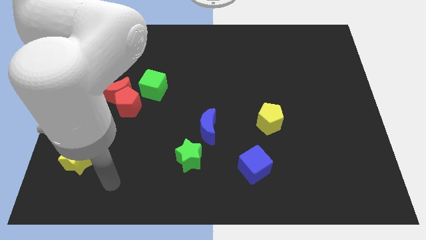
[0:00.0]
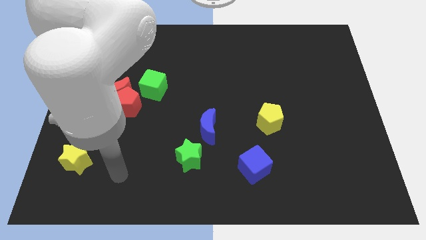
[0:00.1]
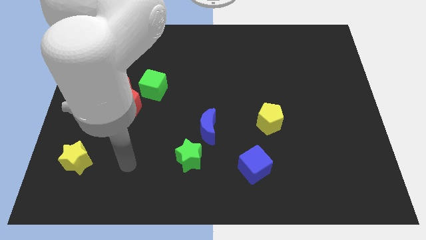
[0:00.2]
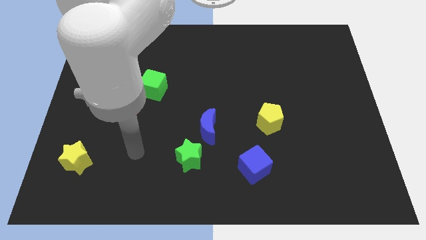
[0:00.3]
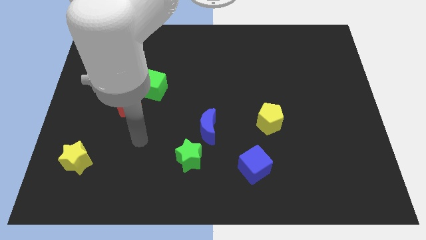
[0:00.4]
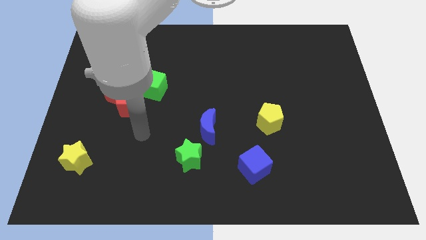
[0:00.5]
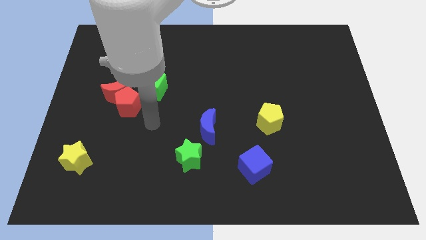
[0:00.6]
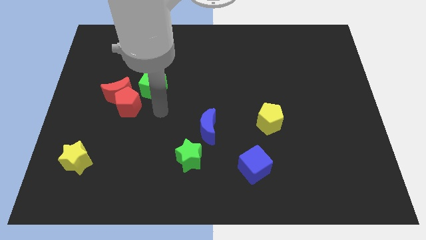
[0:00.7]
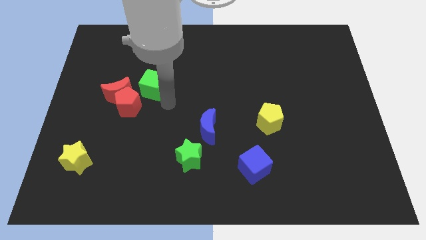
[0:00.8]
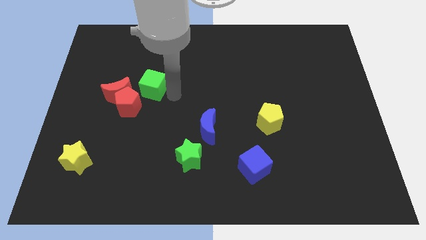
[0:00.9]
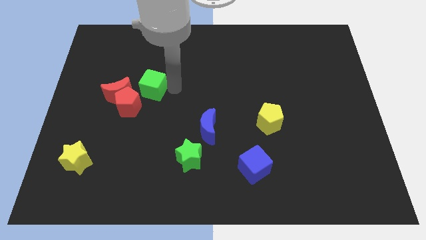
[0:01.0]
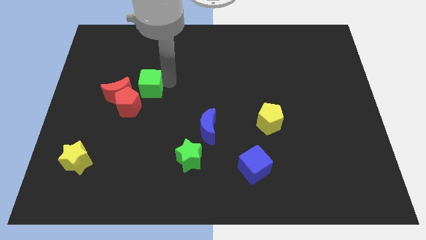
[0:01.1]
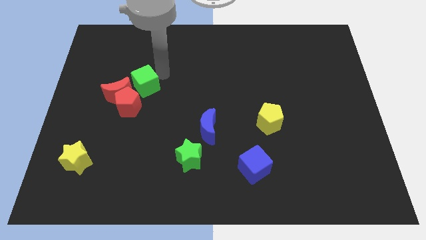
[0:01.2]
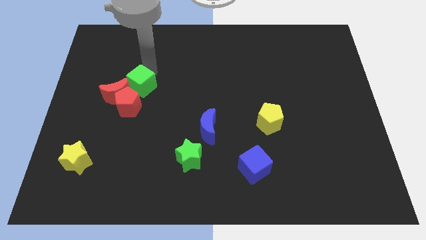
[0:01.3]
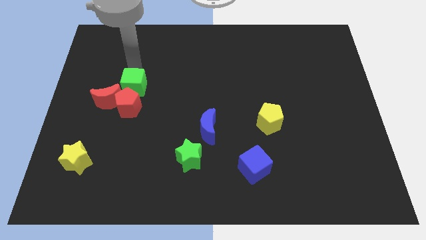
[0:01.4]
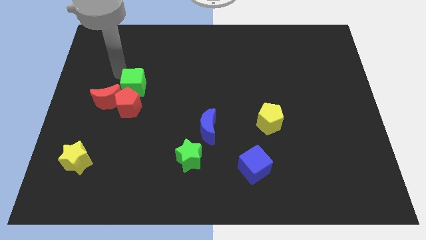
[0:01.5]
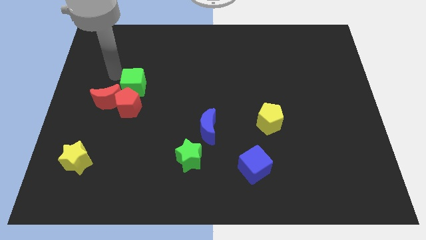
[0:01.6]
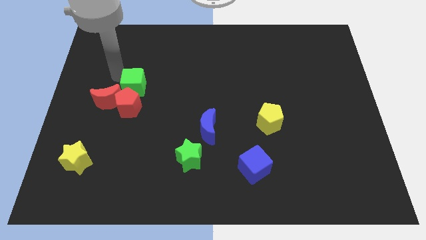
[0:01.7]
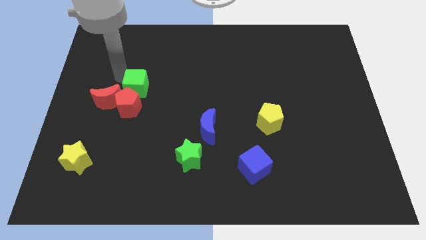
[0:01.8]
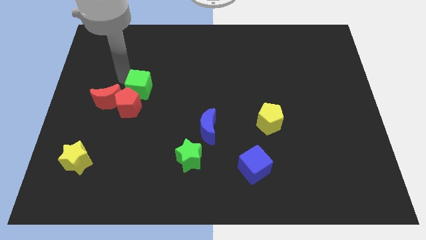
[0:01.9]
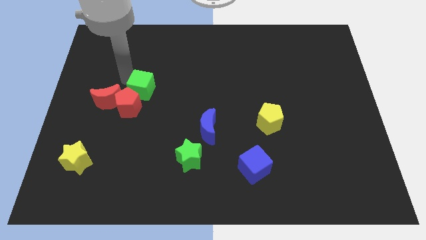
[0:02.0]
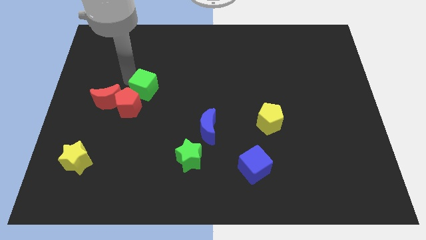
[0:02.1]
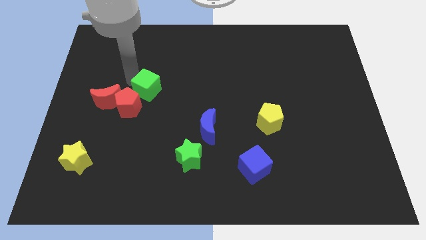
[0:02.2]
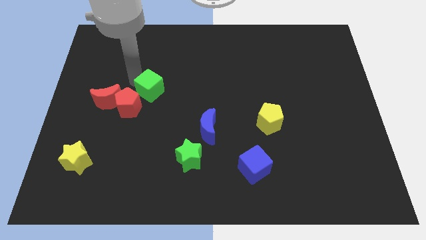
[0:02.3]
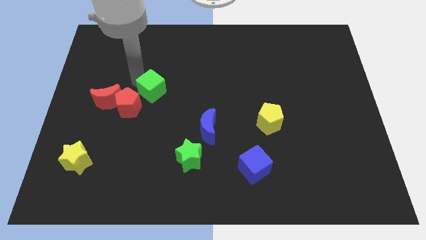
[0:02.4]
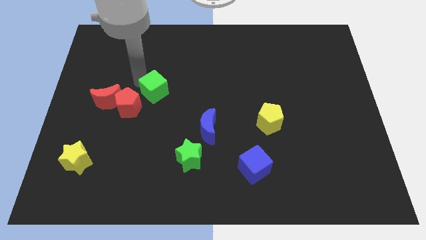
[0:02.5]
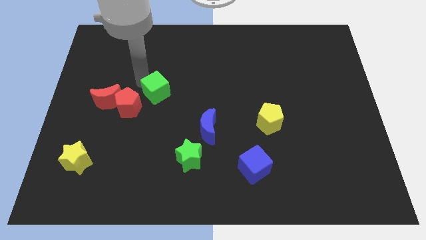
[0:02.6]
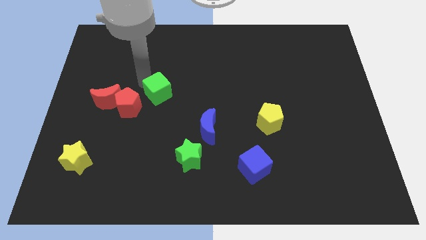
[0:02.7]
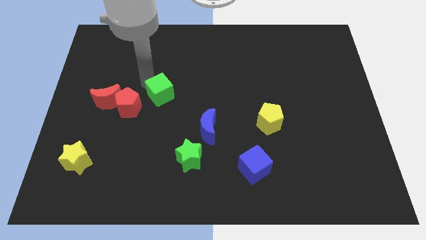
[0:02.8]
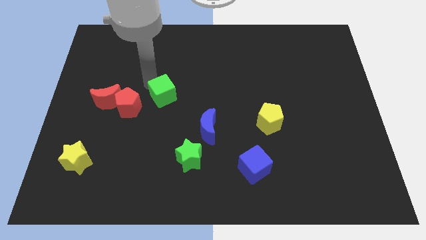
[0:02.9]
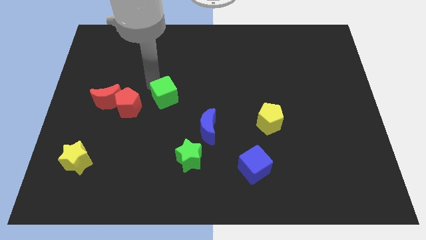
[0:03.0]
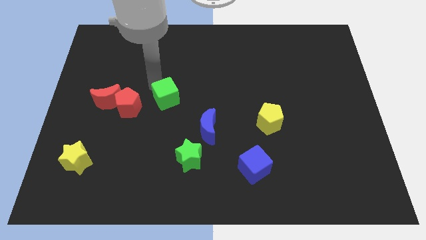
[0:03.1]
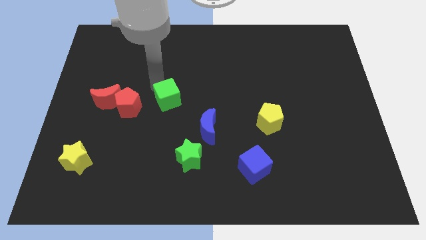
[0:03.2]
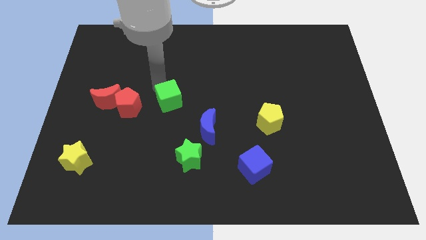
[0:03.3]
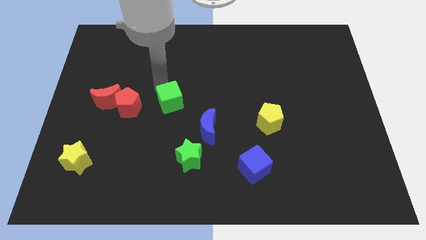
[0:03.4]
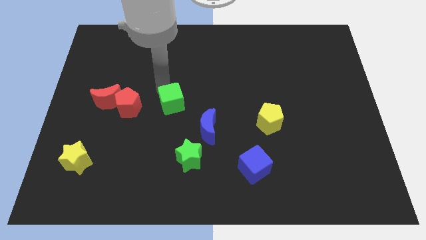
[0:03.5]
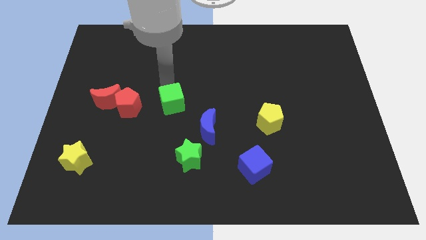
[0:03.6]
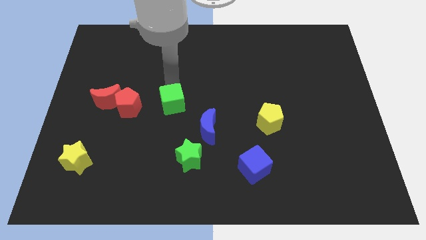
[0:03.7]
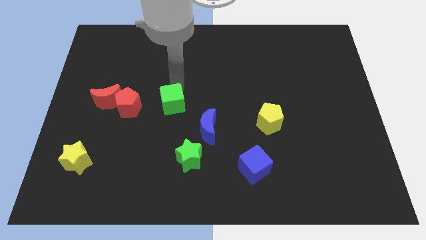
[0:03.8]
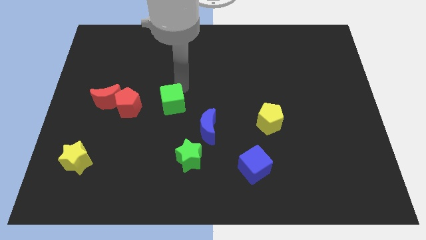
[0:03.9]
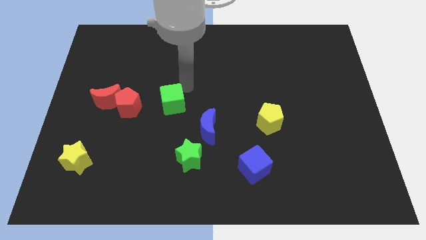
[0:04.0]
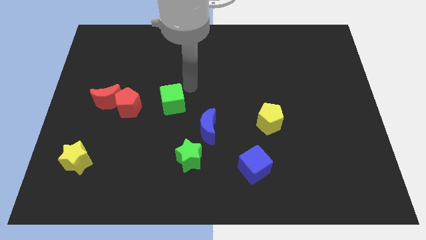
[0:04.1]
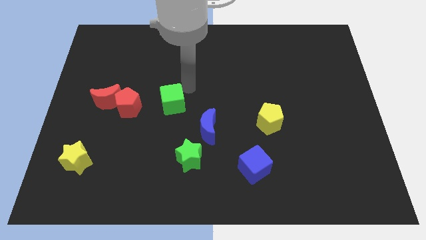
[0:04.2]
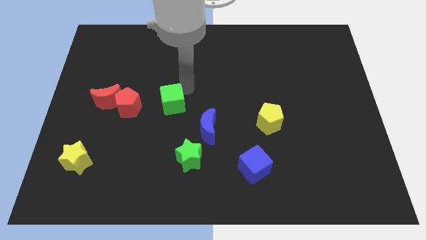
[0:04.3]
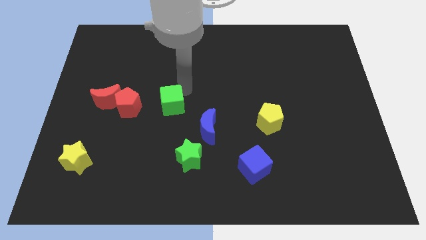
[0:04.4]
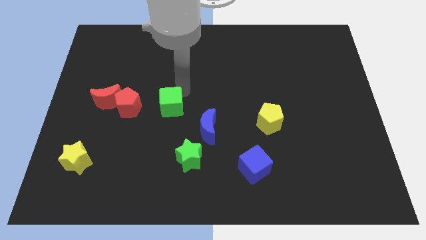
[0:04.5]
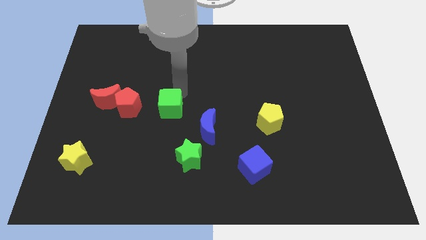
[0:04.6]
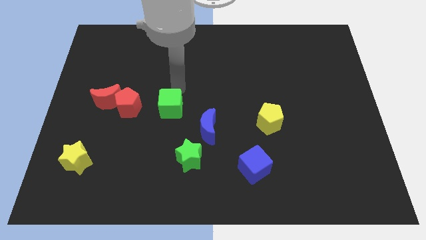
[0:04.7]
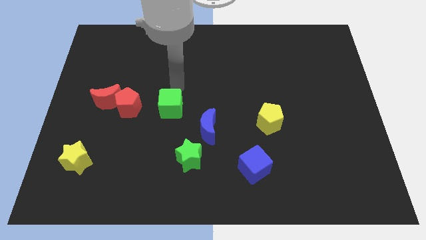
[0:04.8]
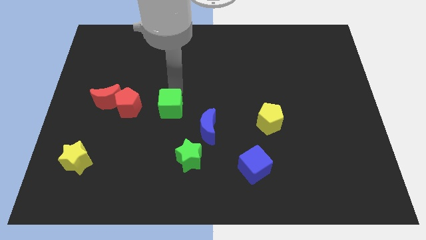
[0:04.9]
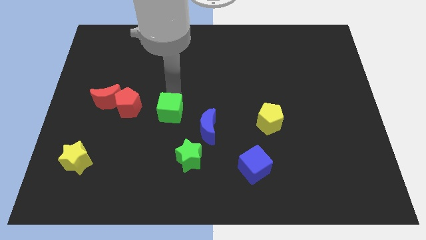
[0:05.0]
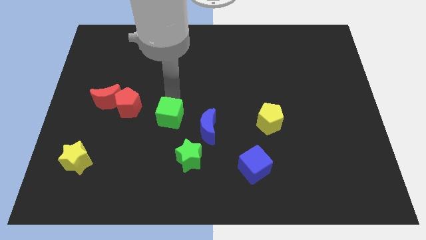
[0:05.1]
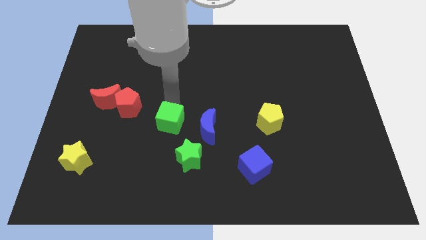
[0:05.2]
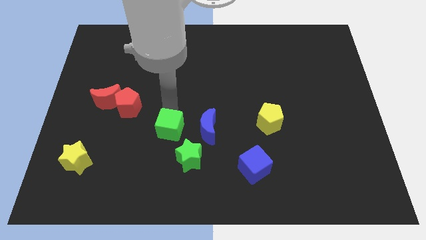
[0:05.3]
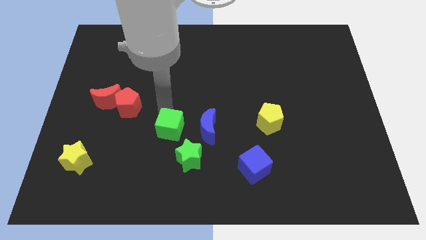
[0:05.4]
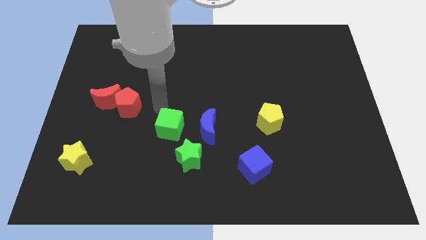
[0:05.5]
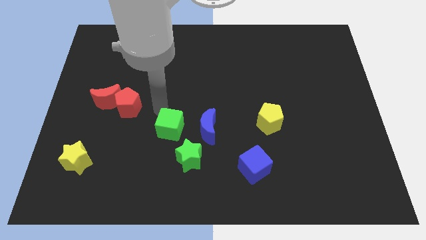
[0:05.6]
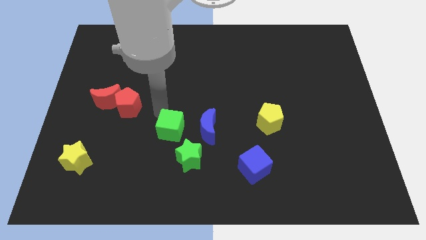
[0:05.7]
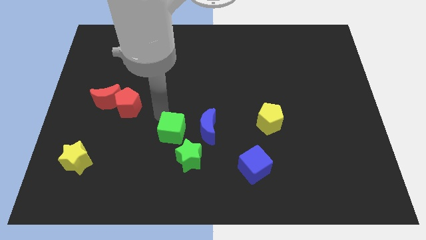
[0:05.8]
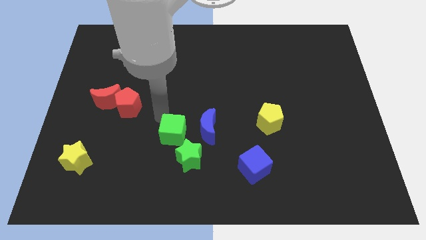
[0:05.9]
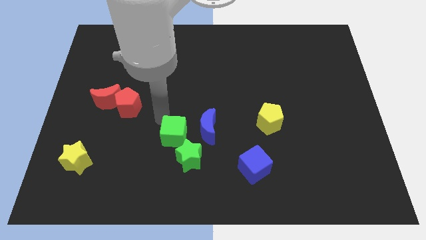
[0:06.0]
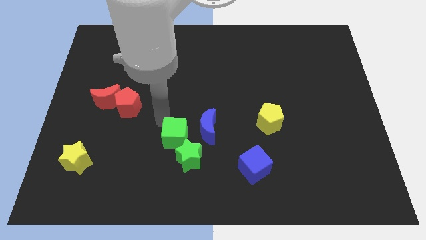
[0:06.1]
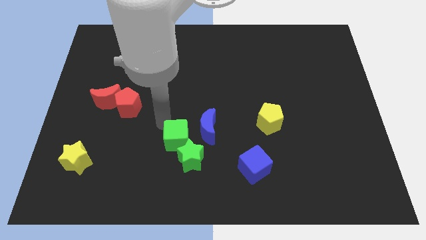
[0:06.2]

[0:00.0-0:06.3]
push the green cube close to the green star

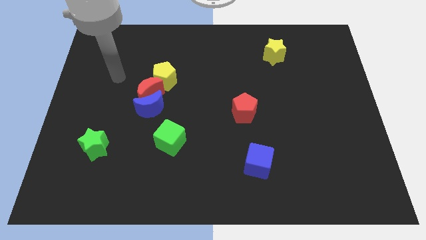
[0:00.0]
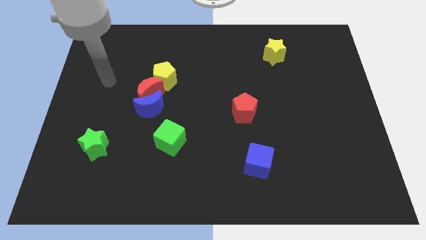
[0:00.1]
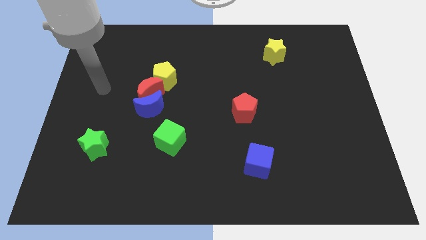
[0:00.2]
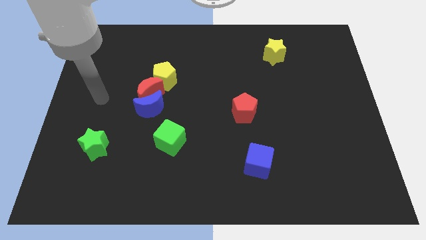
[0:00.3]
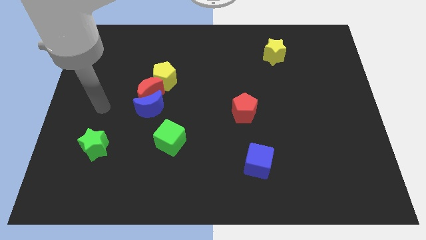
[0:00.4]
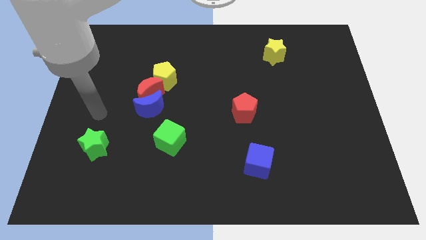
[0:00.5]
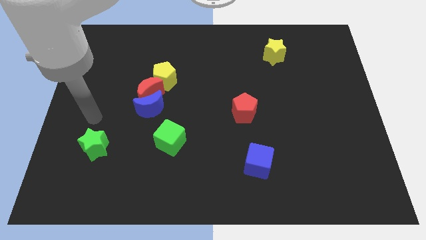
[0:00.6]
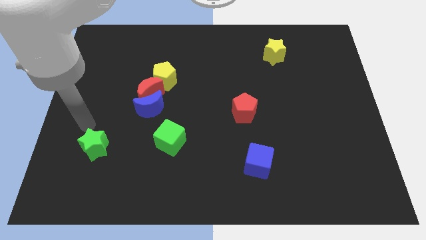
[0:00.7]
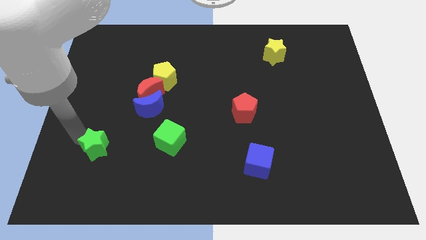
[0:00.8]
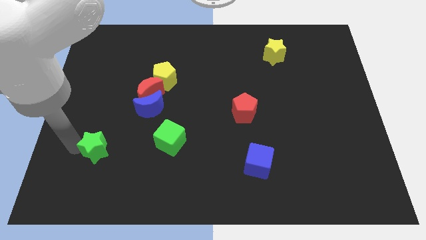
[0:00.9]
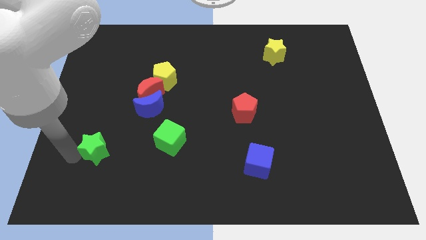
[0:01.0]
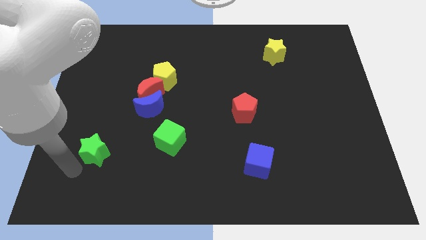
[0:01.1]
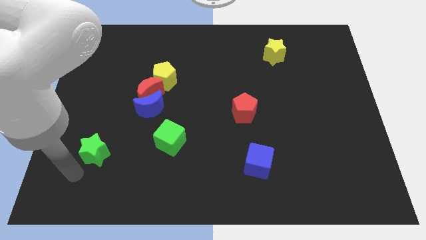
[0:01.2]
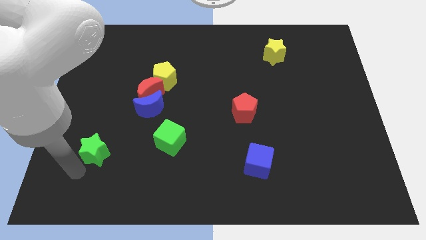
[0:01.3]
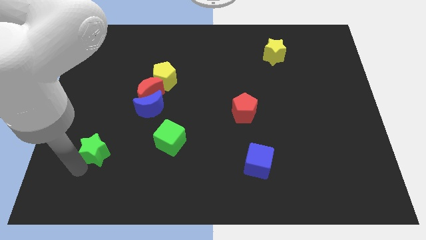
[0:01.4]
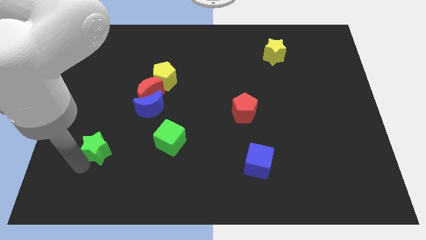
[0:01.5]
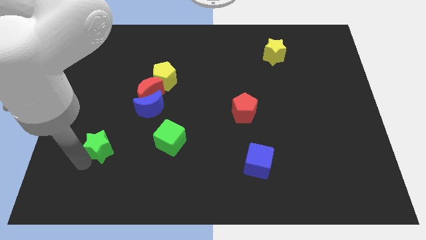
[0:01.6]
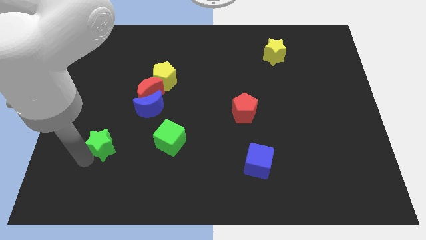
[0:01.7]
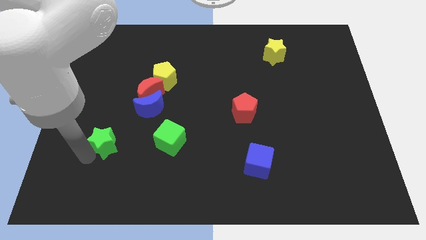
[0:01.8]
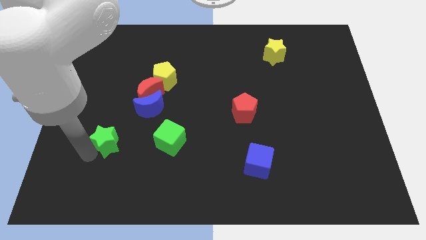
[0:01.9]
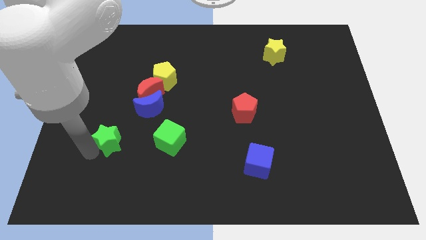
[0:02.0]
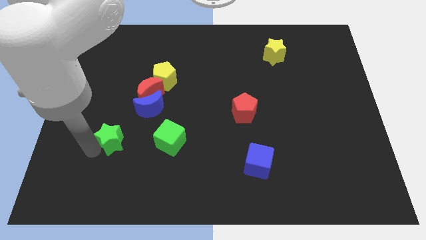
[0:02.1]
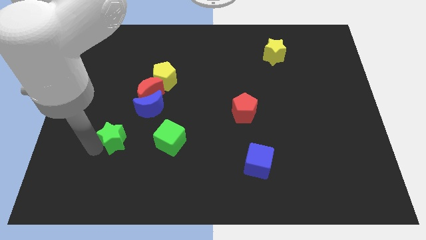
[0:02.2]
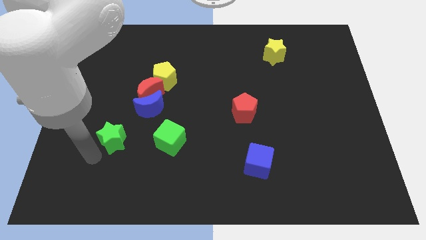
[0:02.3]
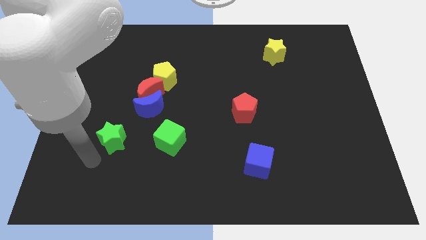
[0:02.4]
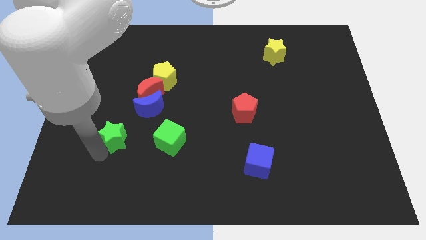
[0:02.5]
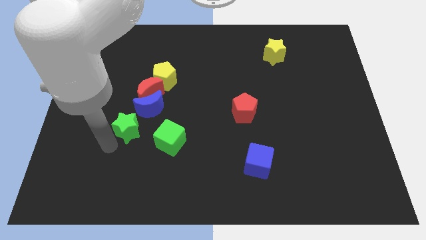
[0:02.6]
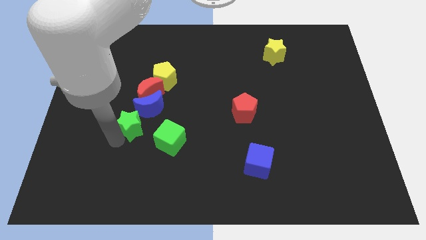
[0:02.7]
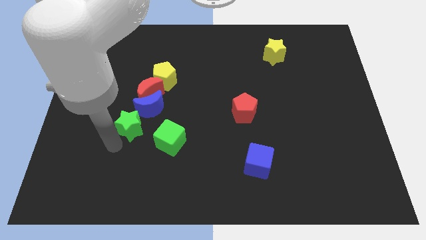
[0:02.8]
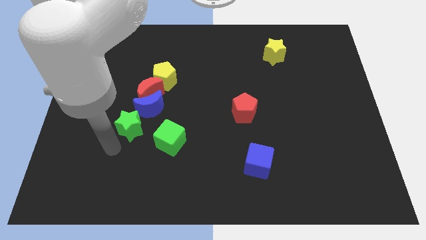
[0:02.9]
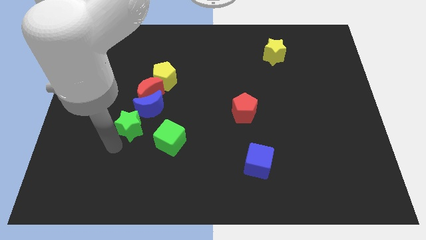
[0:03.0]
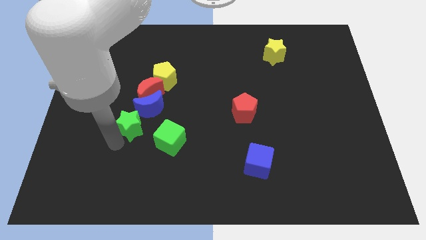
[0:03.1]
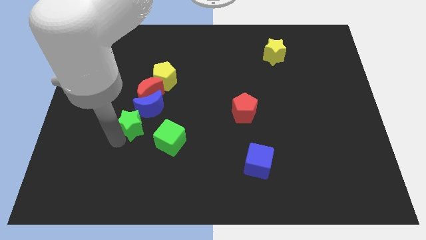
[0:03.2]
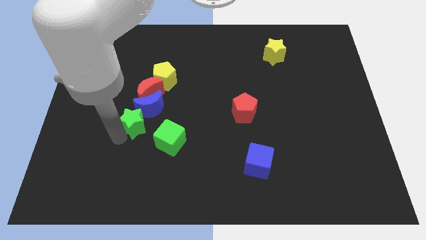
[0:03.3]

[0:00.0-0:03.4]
put the green star close to the blue moon
